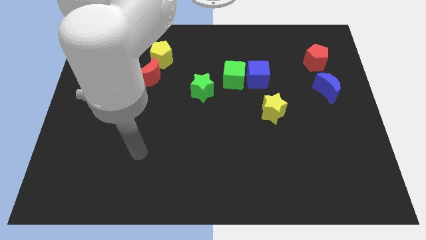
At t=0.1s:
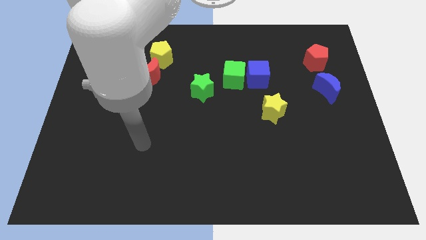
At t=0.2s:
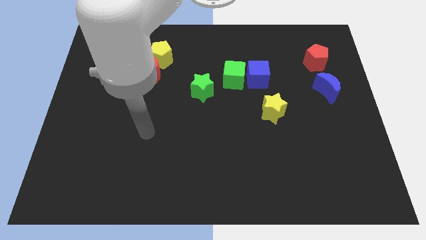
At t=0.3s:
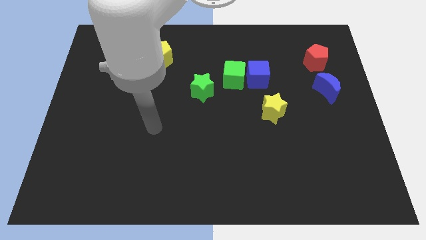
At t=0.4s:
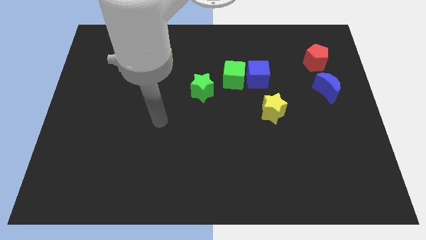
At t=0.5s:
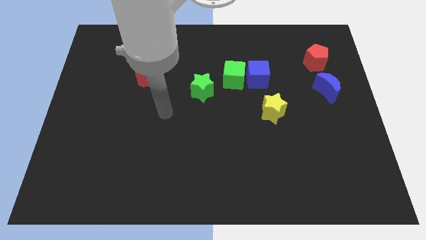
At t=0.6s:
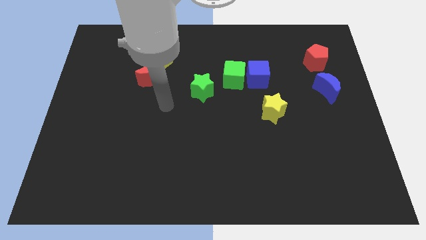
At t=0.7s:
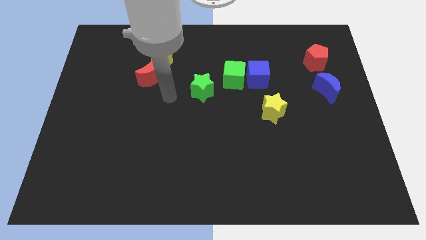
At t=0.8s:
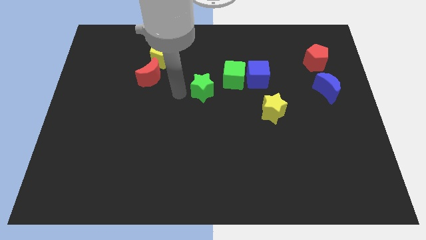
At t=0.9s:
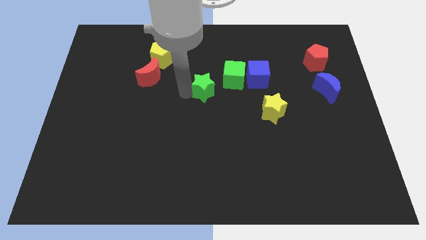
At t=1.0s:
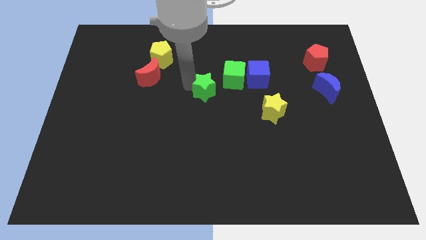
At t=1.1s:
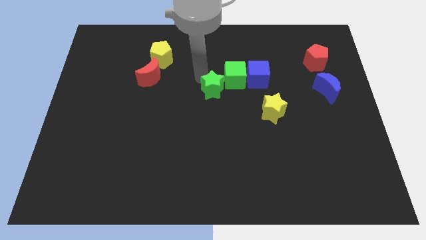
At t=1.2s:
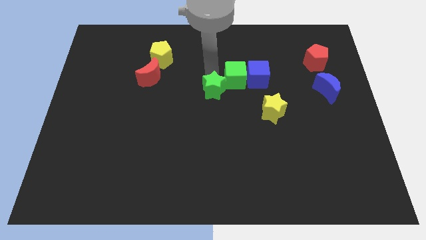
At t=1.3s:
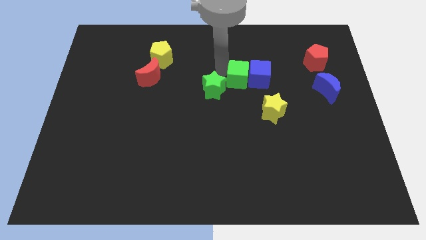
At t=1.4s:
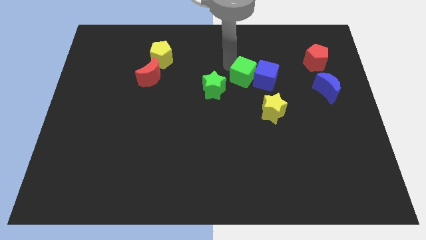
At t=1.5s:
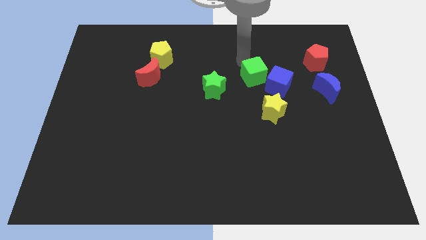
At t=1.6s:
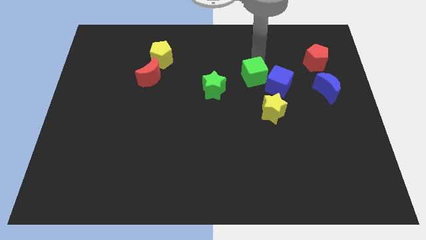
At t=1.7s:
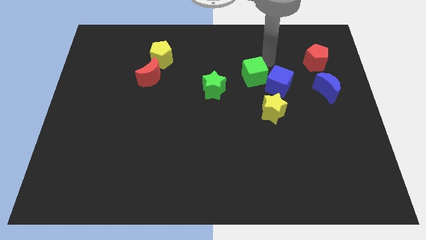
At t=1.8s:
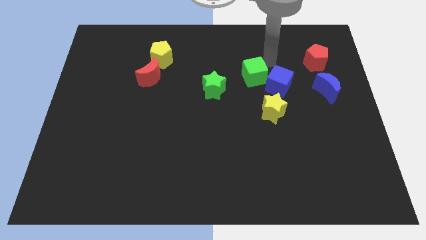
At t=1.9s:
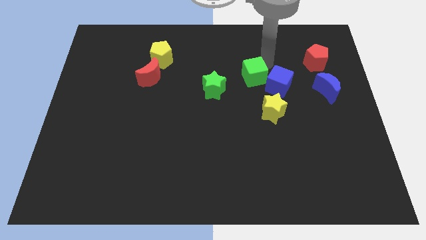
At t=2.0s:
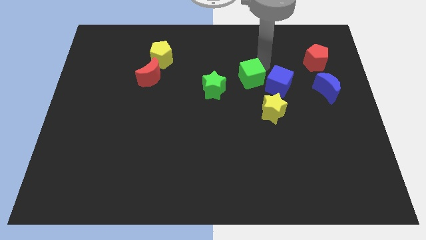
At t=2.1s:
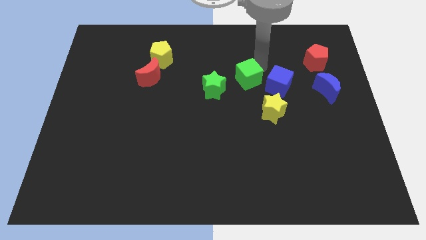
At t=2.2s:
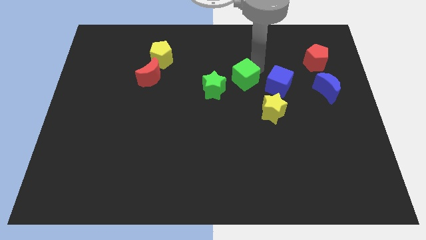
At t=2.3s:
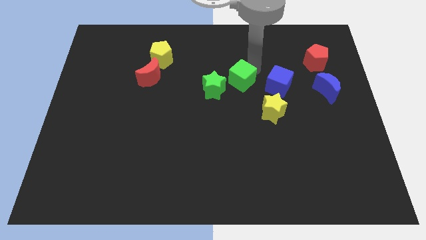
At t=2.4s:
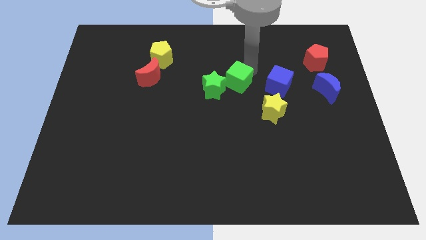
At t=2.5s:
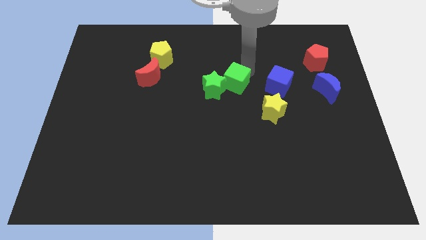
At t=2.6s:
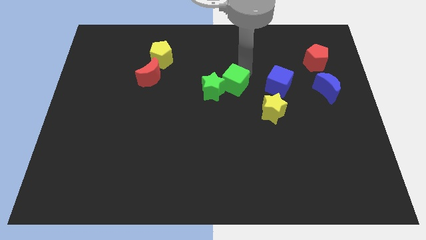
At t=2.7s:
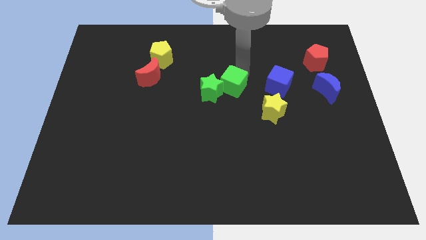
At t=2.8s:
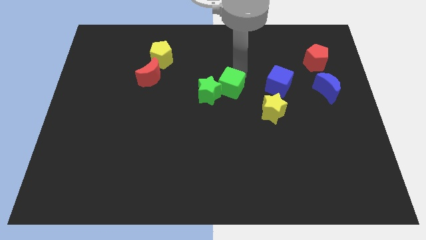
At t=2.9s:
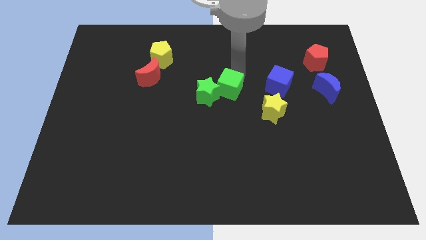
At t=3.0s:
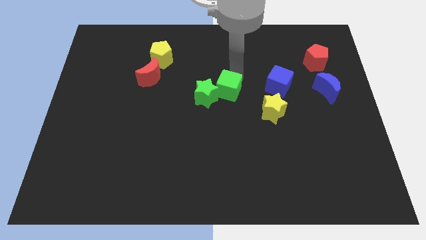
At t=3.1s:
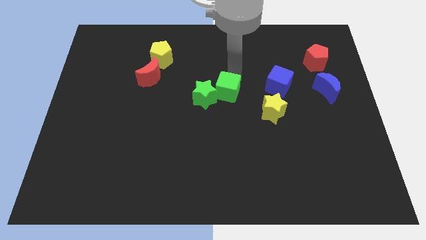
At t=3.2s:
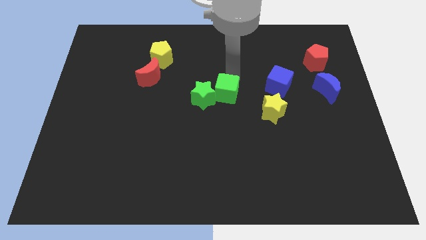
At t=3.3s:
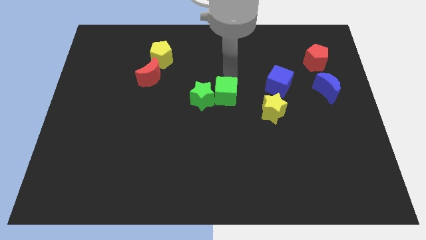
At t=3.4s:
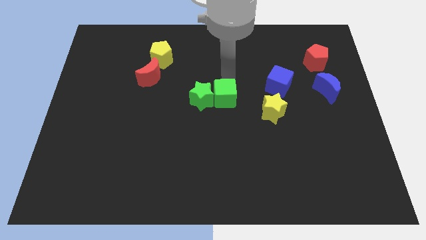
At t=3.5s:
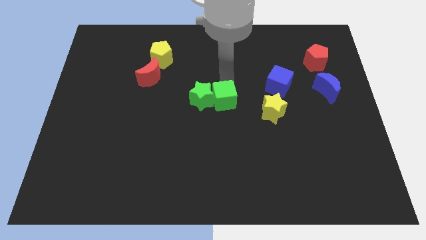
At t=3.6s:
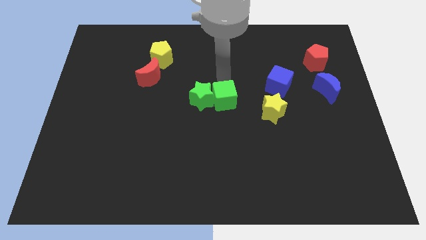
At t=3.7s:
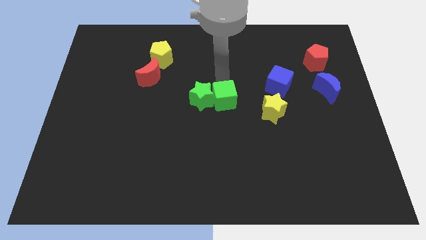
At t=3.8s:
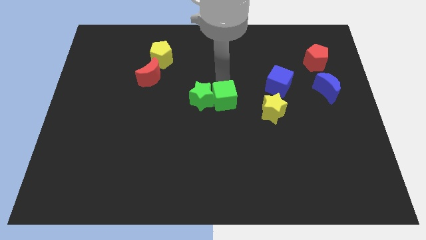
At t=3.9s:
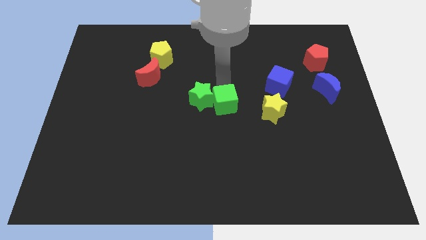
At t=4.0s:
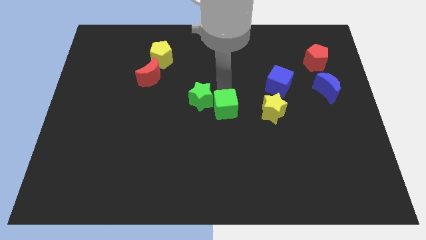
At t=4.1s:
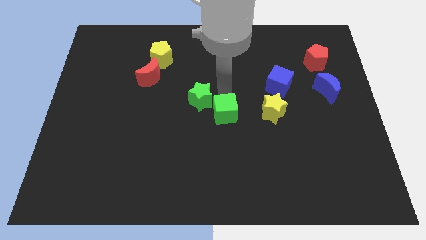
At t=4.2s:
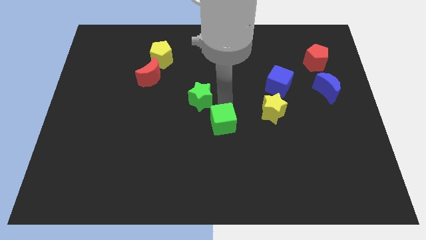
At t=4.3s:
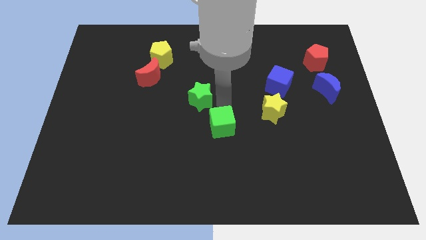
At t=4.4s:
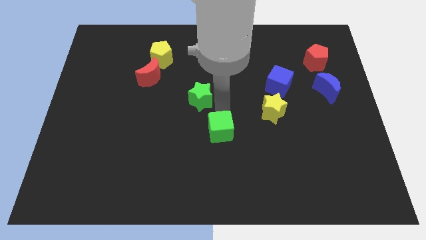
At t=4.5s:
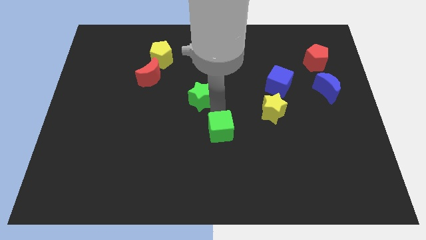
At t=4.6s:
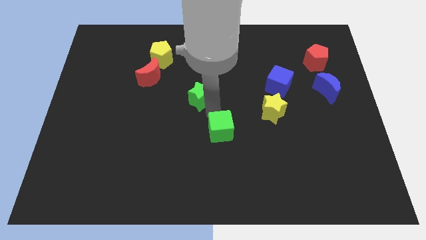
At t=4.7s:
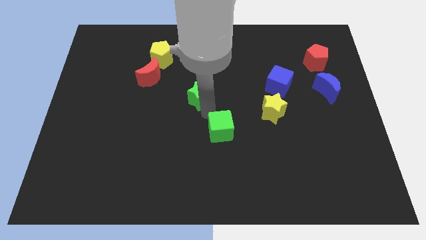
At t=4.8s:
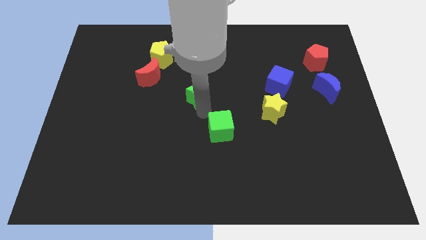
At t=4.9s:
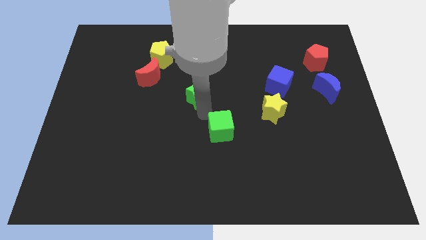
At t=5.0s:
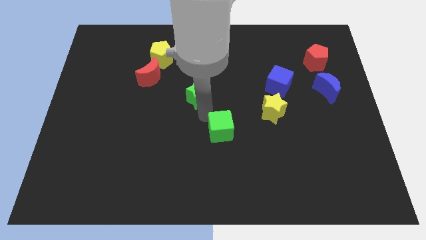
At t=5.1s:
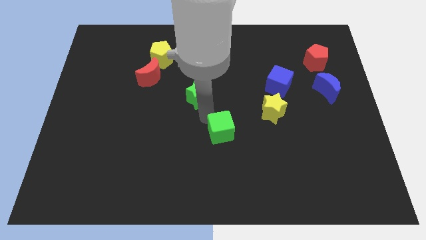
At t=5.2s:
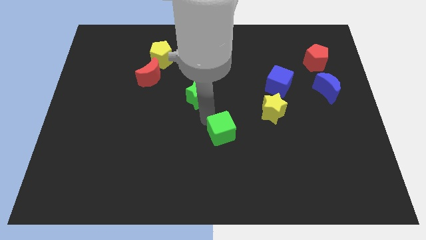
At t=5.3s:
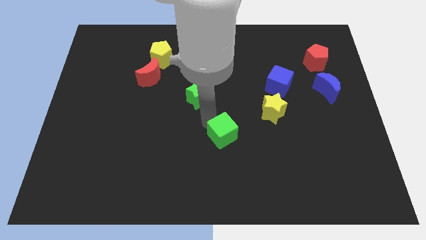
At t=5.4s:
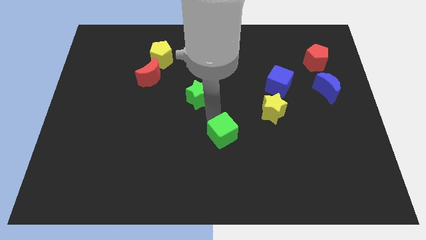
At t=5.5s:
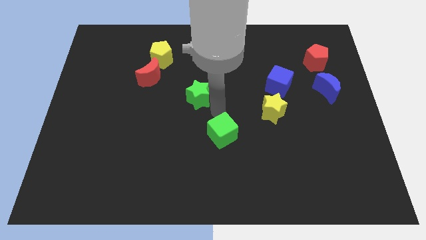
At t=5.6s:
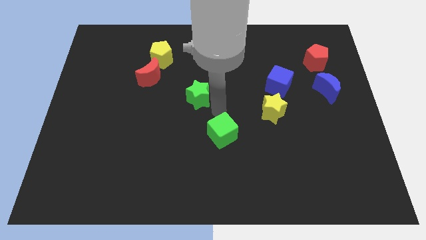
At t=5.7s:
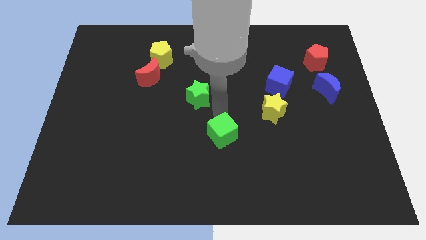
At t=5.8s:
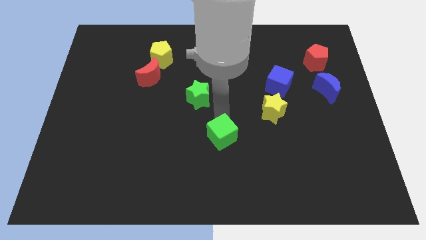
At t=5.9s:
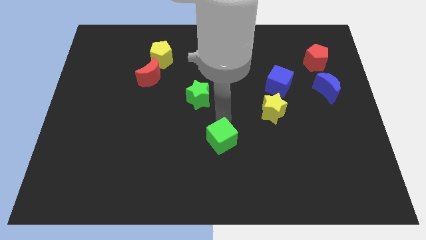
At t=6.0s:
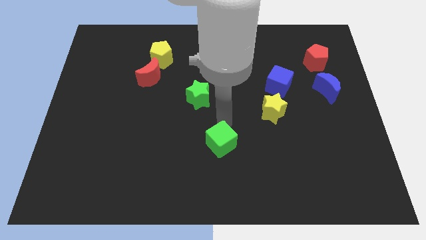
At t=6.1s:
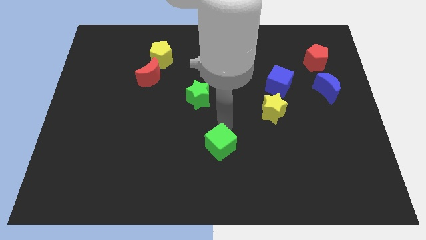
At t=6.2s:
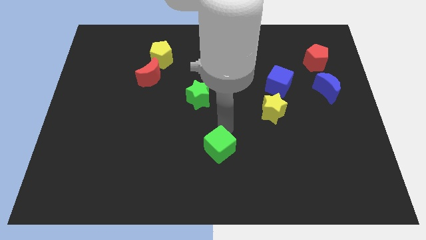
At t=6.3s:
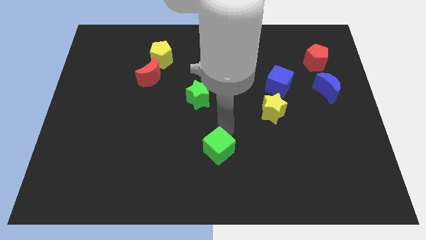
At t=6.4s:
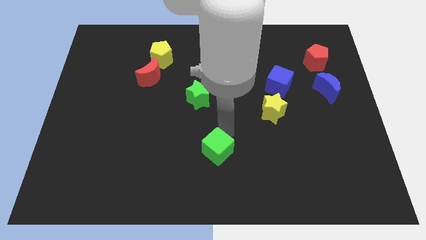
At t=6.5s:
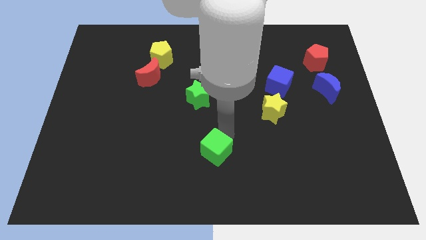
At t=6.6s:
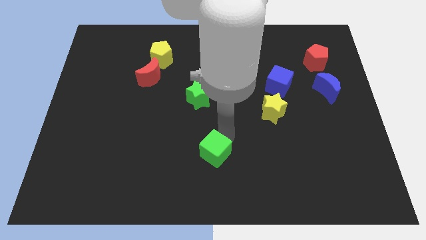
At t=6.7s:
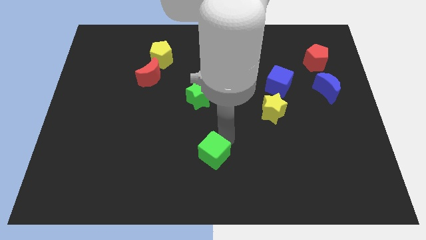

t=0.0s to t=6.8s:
put the green cube to the bottom
